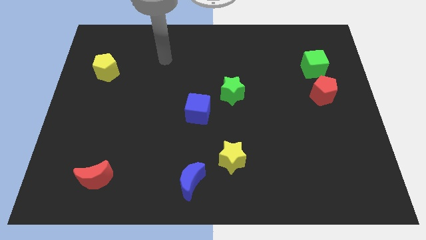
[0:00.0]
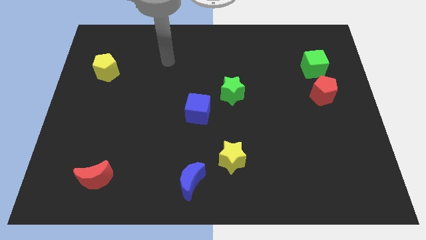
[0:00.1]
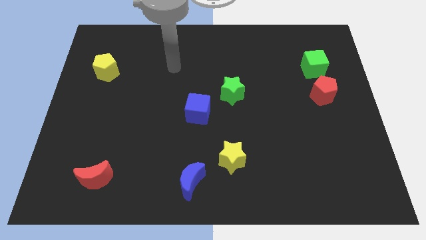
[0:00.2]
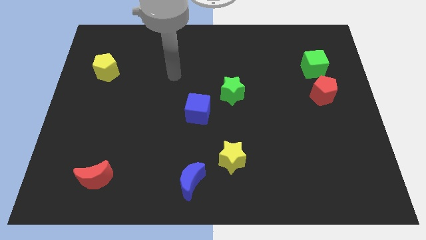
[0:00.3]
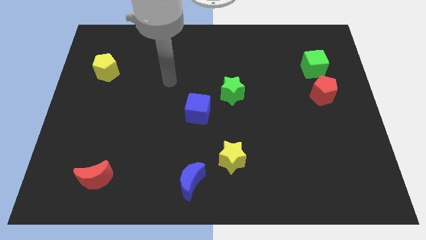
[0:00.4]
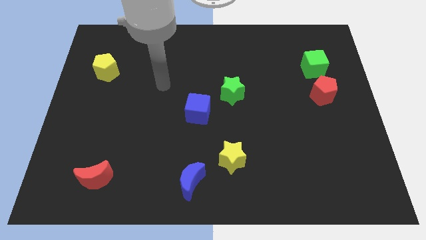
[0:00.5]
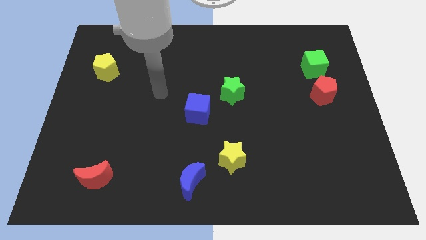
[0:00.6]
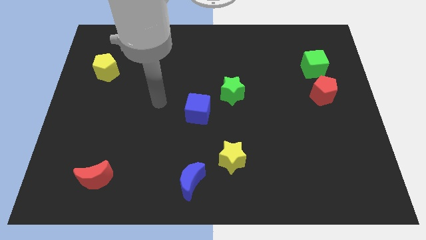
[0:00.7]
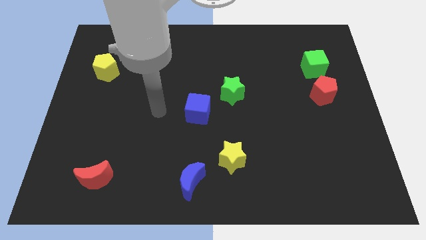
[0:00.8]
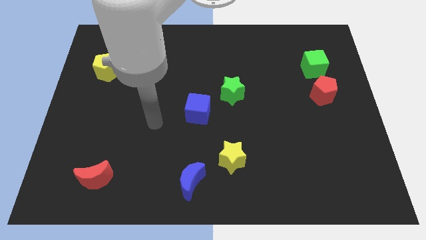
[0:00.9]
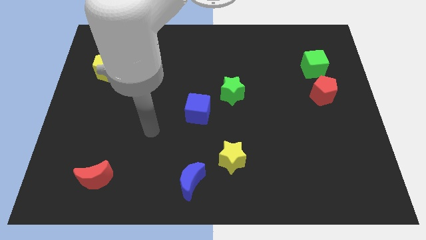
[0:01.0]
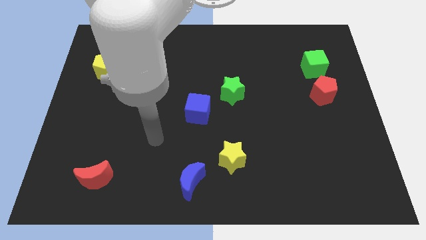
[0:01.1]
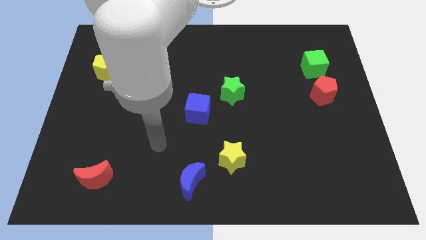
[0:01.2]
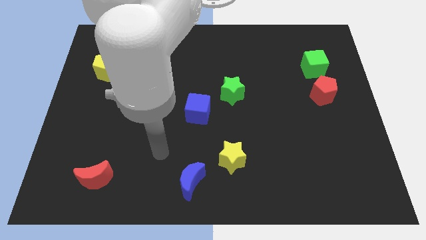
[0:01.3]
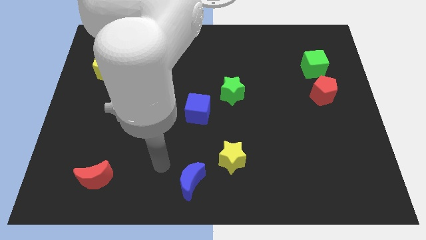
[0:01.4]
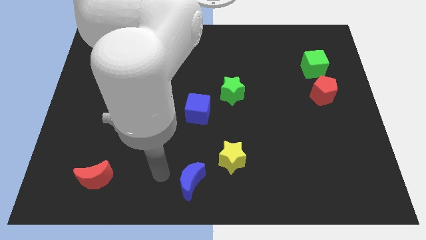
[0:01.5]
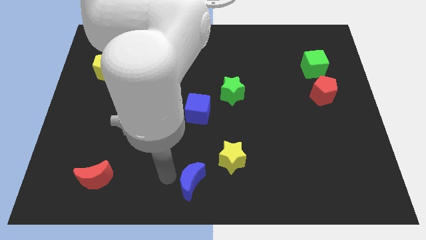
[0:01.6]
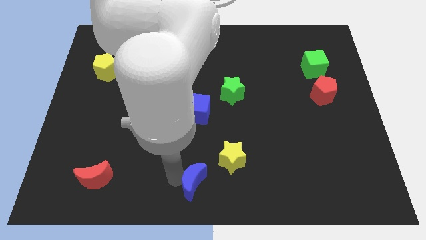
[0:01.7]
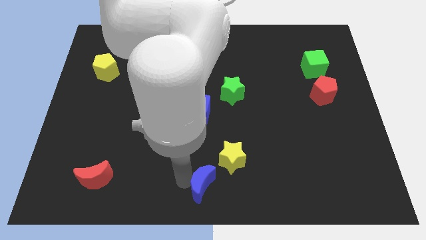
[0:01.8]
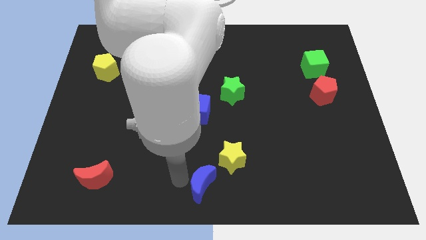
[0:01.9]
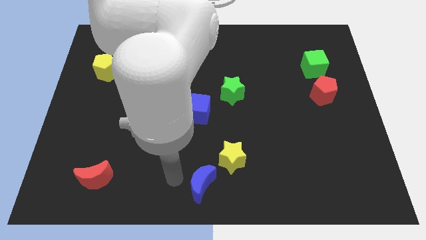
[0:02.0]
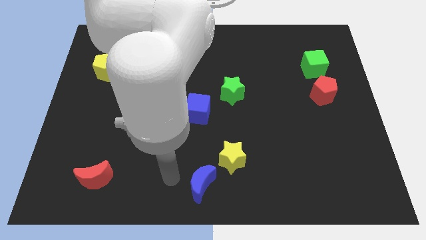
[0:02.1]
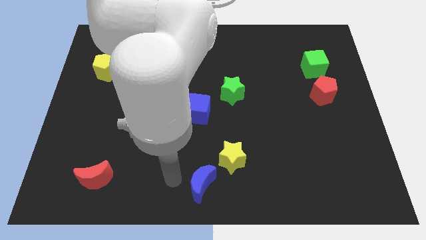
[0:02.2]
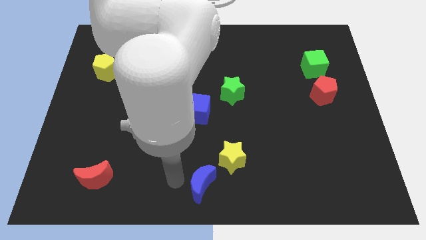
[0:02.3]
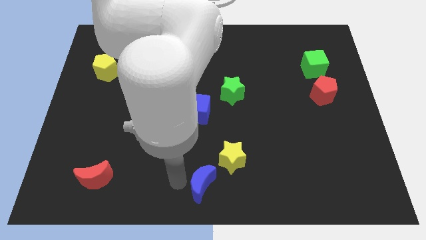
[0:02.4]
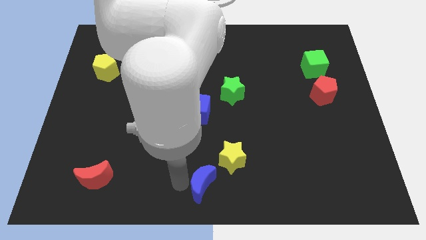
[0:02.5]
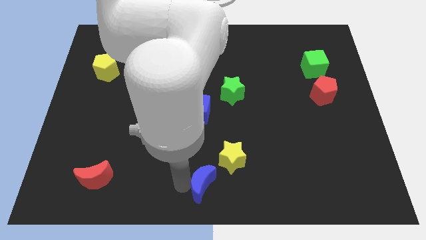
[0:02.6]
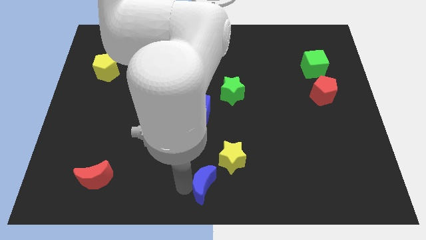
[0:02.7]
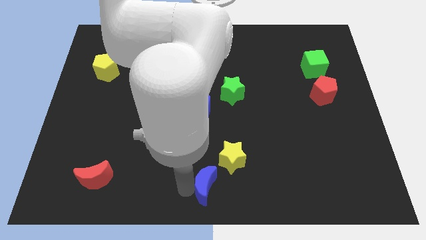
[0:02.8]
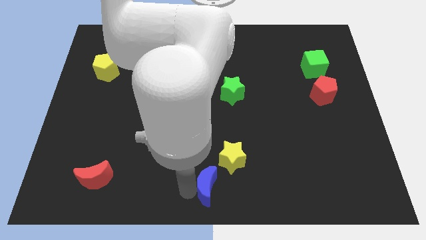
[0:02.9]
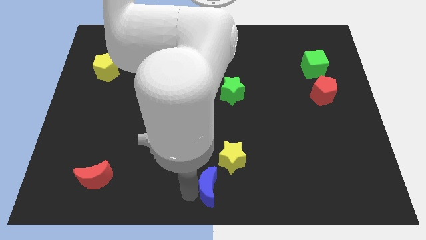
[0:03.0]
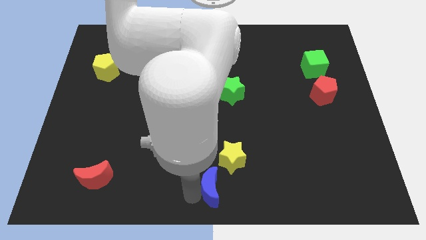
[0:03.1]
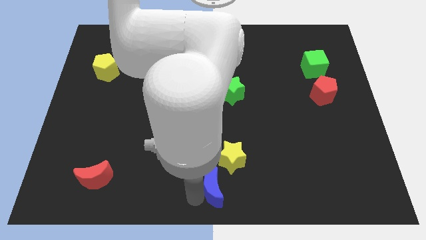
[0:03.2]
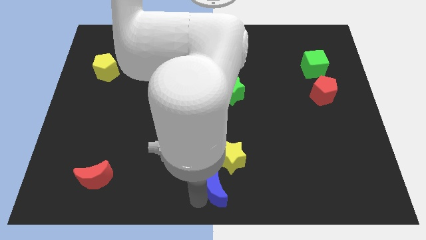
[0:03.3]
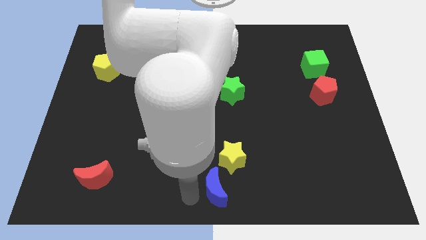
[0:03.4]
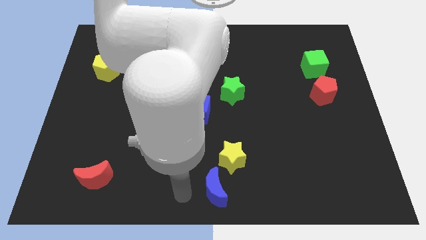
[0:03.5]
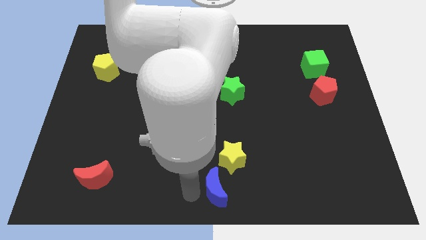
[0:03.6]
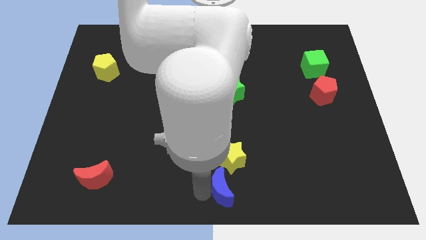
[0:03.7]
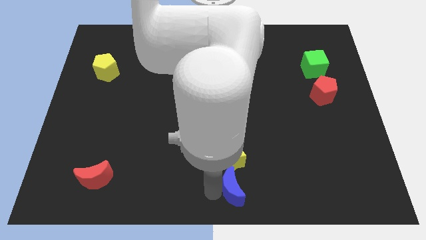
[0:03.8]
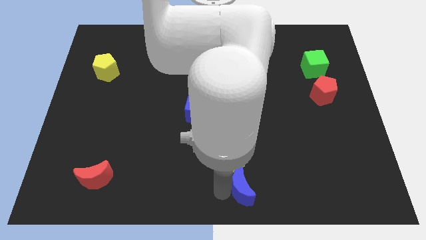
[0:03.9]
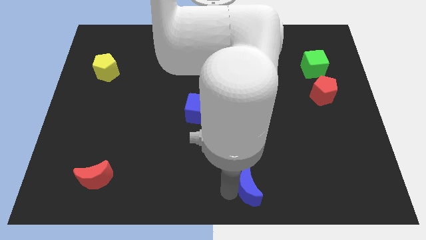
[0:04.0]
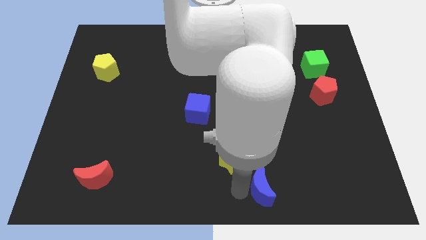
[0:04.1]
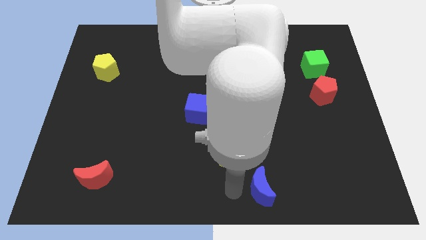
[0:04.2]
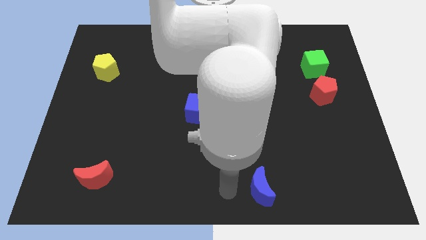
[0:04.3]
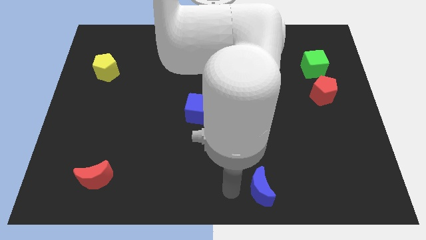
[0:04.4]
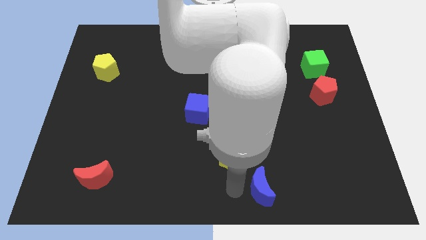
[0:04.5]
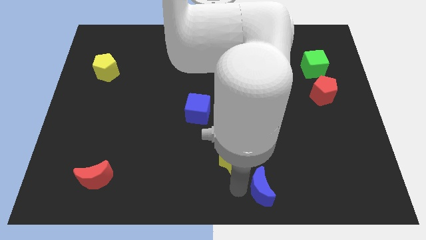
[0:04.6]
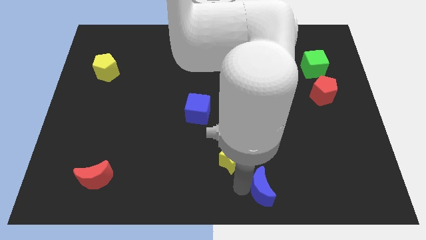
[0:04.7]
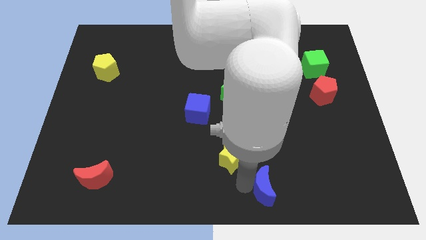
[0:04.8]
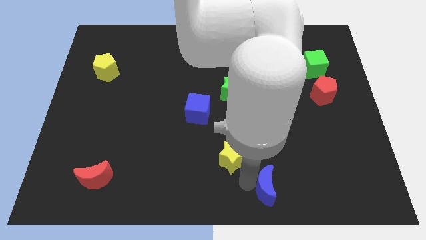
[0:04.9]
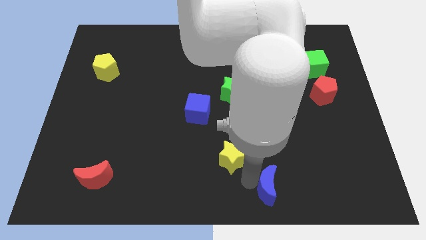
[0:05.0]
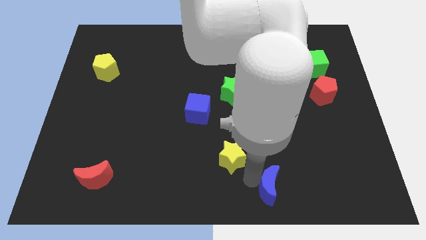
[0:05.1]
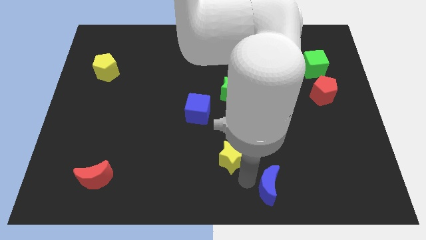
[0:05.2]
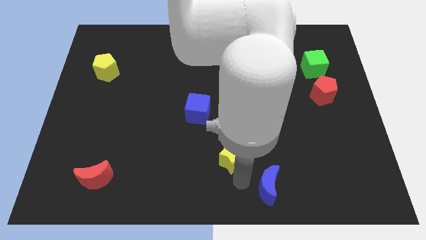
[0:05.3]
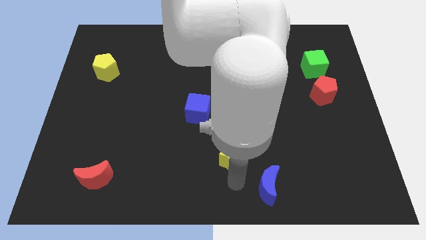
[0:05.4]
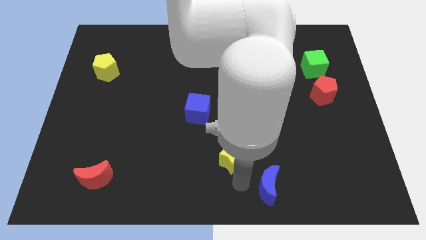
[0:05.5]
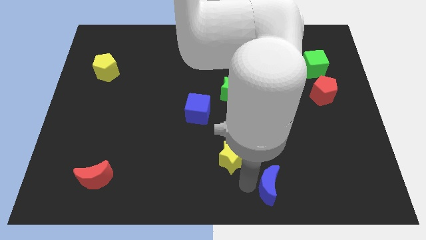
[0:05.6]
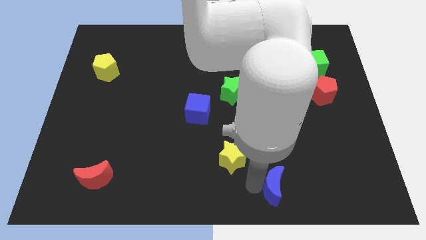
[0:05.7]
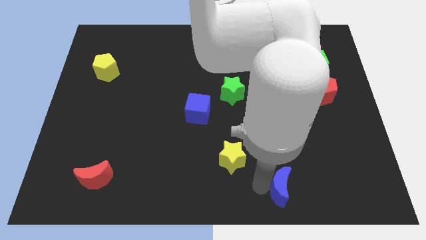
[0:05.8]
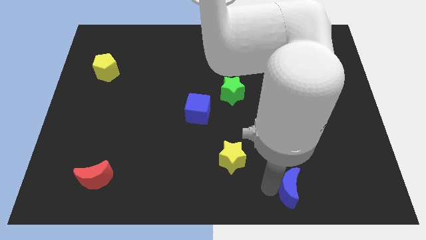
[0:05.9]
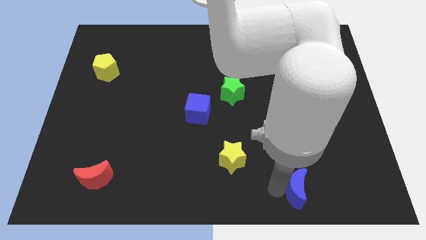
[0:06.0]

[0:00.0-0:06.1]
move the blue moon to the right

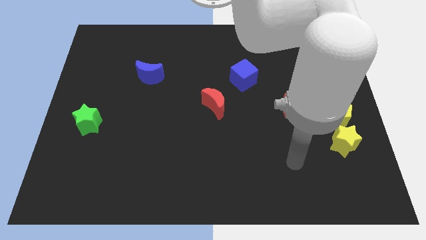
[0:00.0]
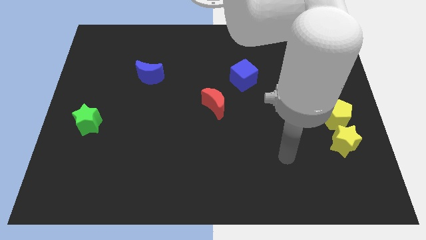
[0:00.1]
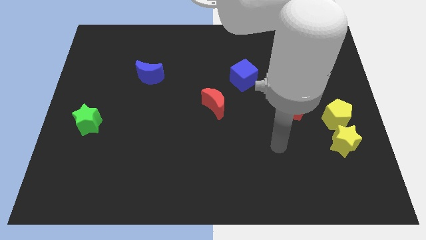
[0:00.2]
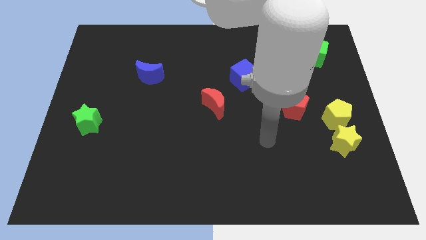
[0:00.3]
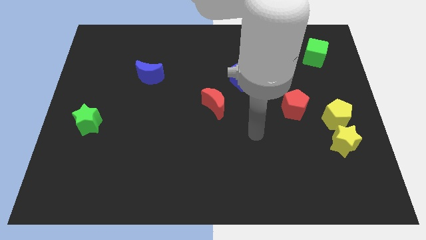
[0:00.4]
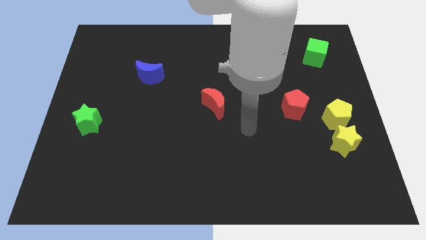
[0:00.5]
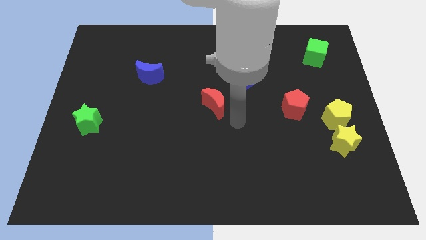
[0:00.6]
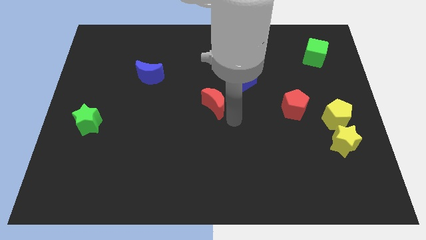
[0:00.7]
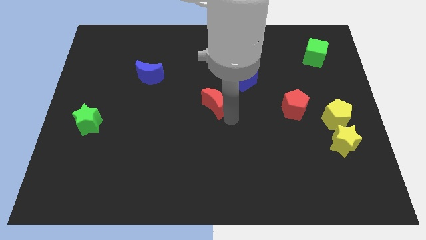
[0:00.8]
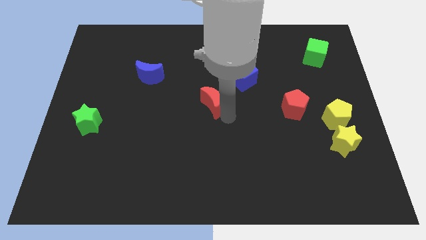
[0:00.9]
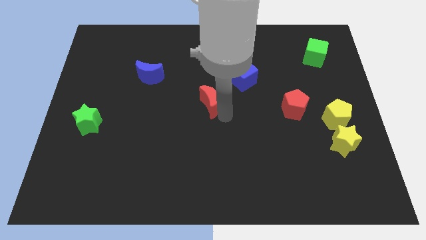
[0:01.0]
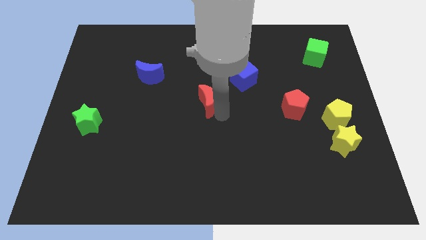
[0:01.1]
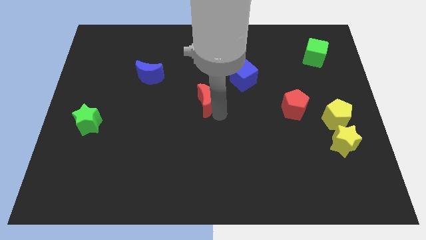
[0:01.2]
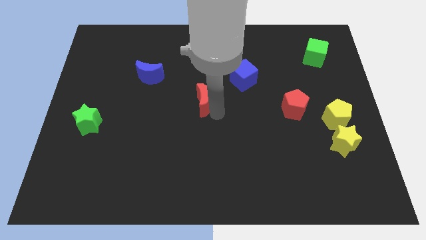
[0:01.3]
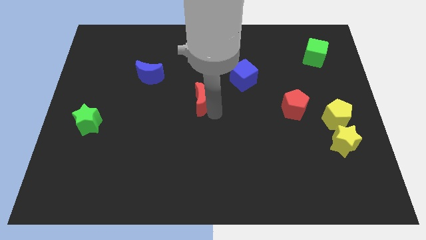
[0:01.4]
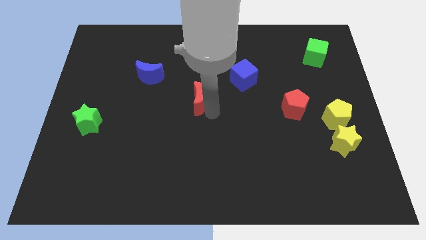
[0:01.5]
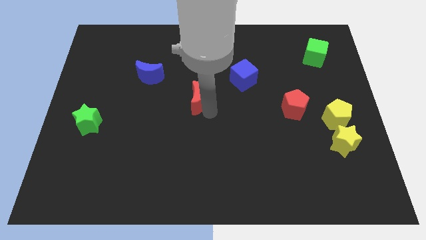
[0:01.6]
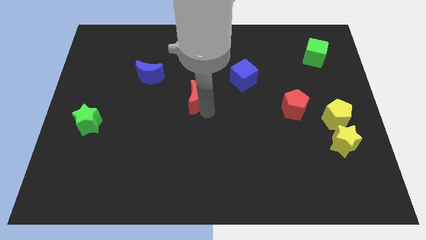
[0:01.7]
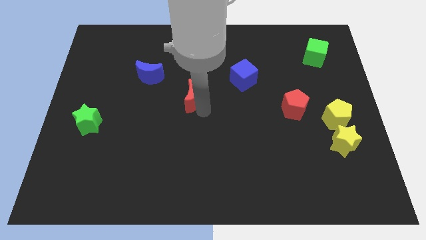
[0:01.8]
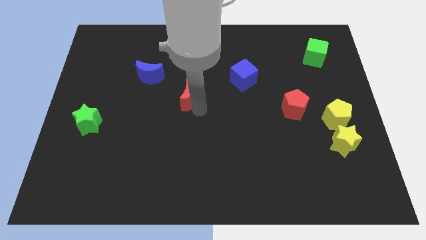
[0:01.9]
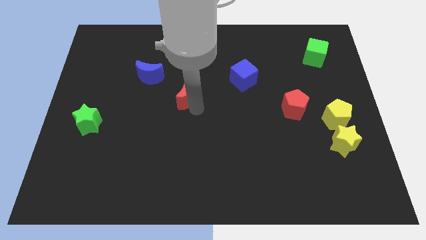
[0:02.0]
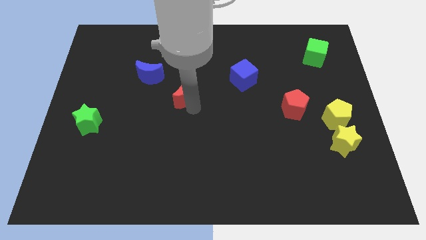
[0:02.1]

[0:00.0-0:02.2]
move the red moon upwards and then to the left a bit

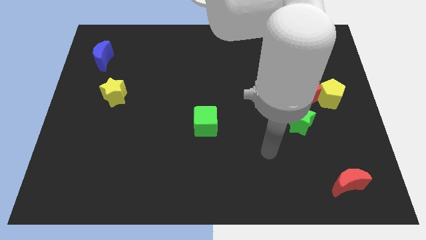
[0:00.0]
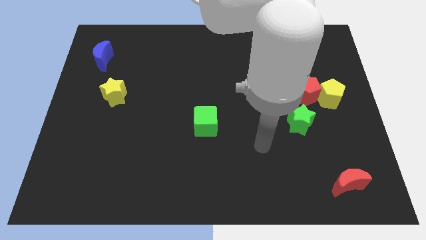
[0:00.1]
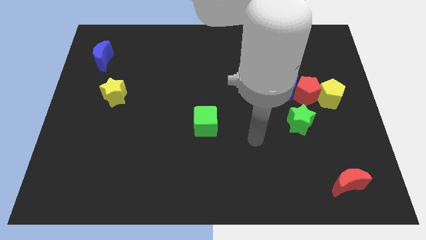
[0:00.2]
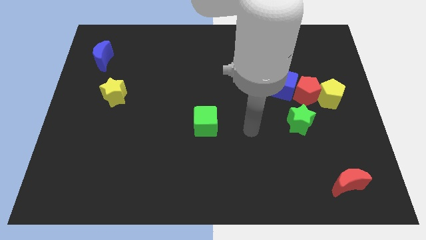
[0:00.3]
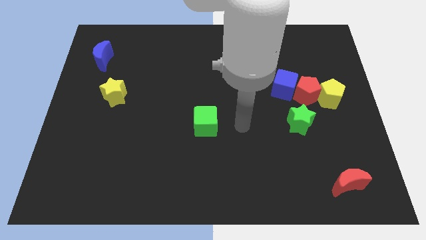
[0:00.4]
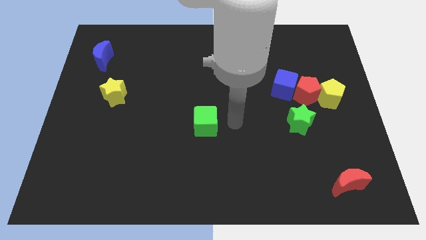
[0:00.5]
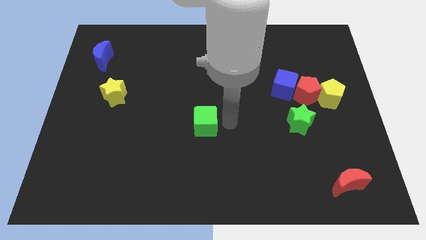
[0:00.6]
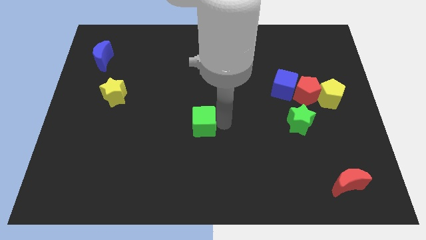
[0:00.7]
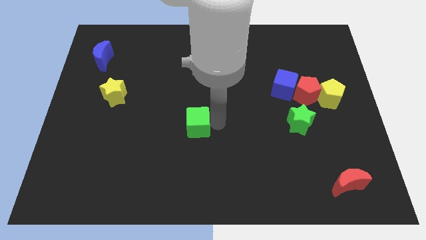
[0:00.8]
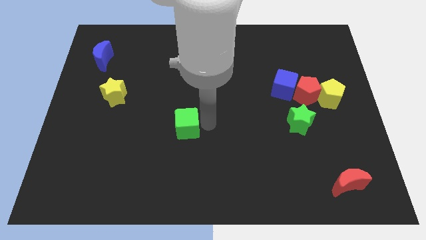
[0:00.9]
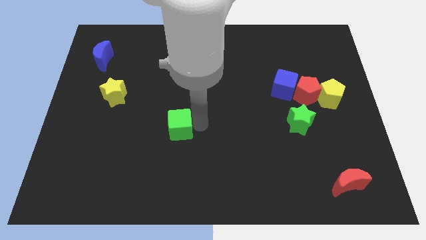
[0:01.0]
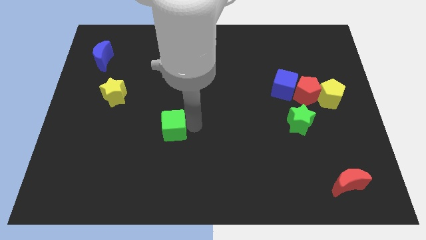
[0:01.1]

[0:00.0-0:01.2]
slightly move the green cube to the left
